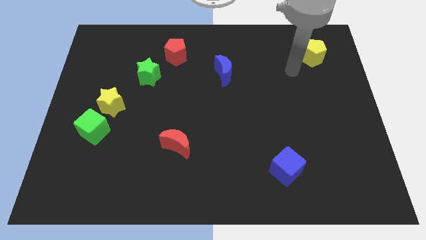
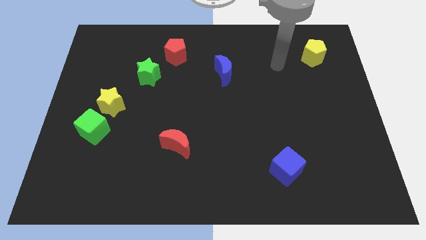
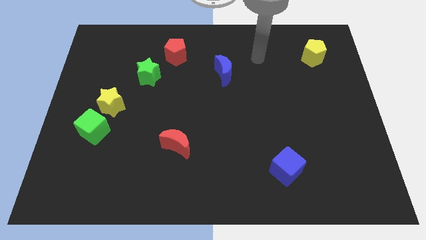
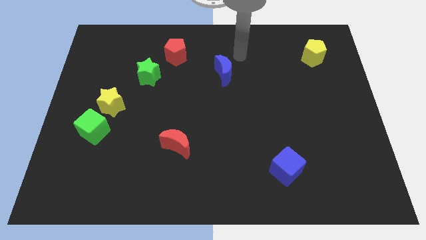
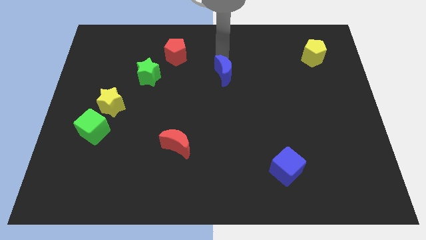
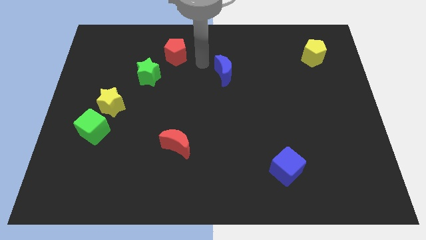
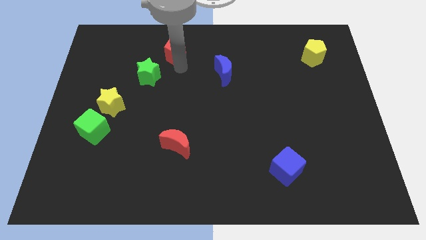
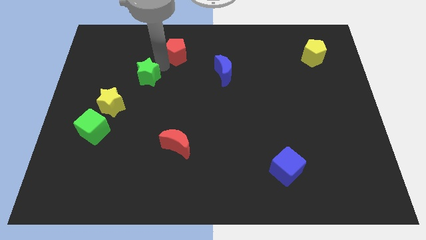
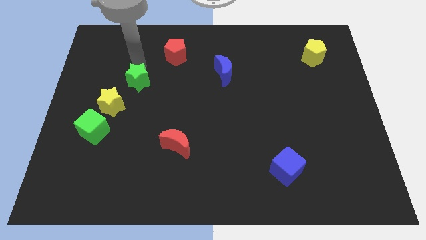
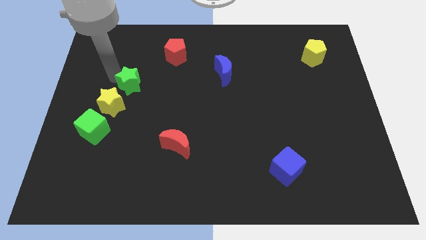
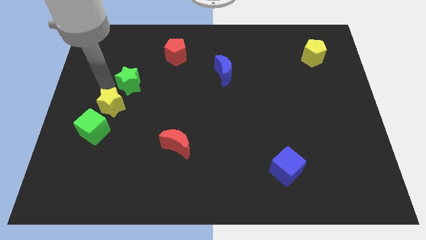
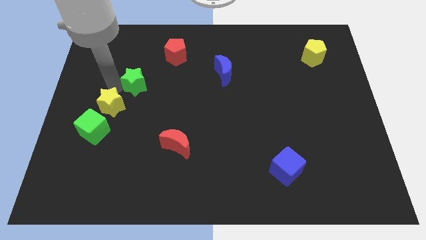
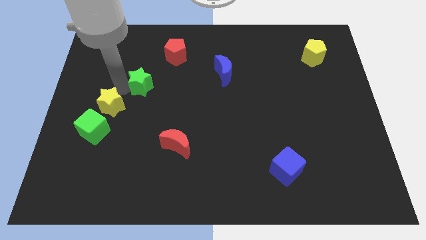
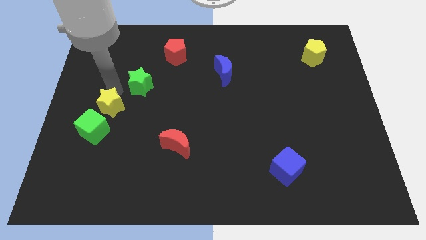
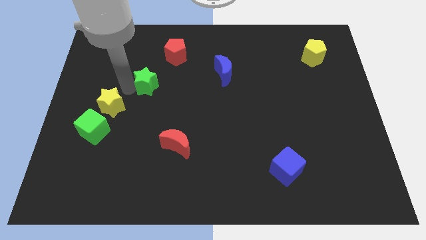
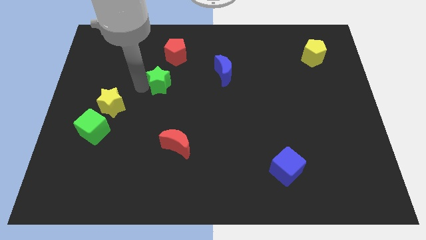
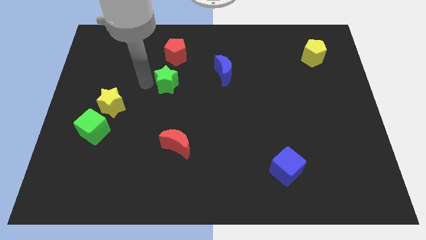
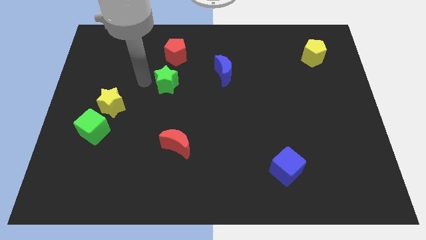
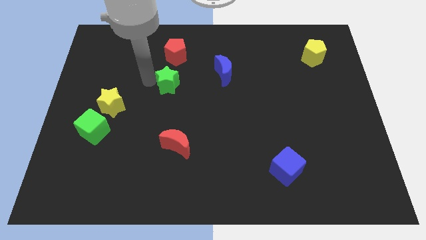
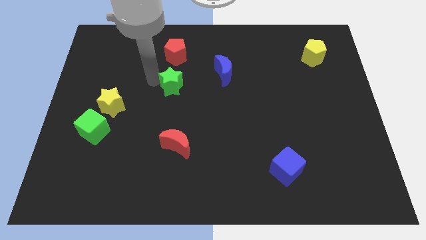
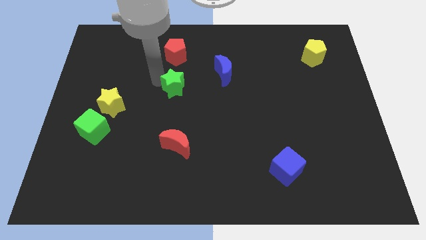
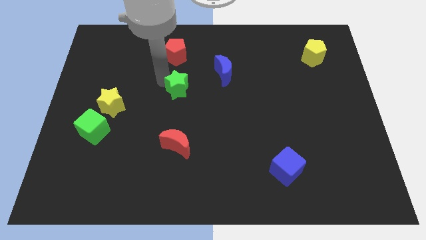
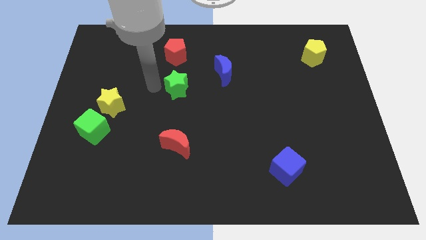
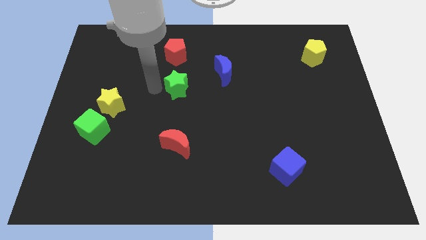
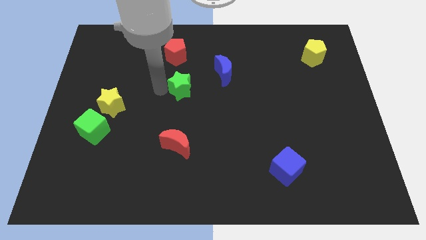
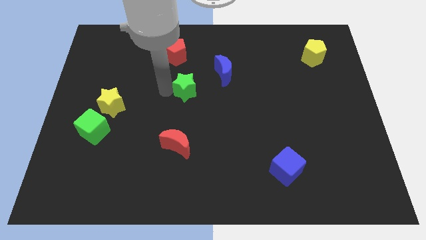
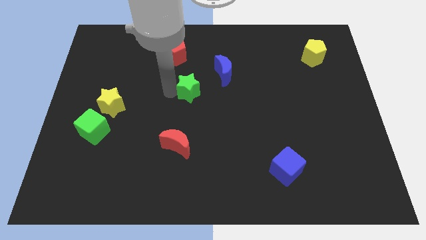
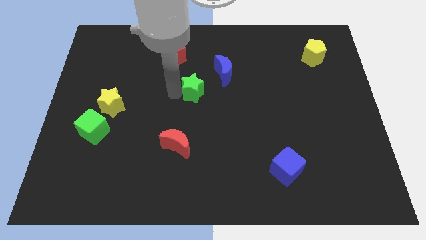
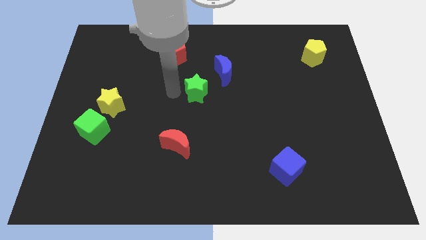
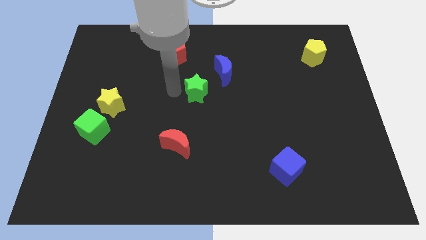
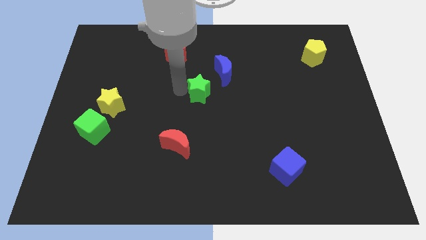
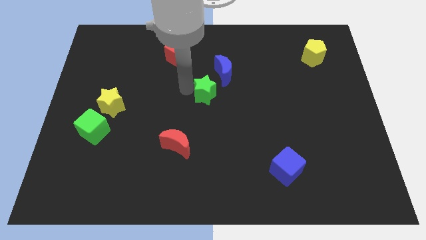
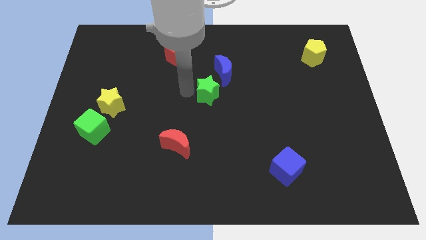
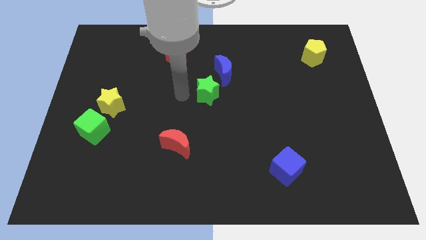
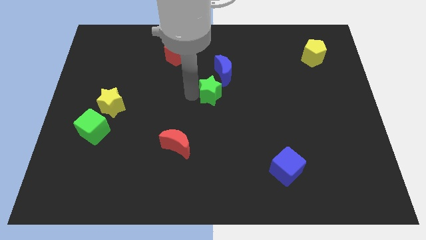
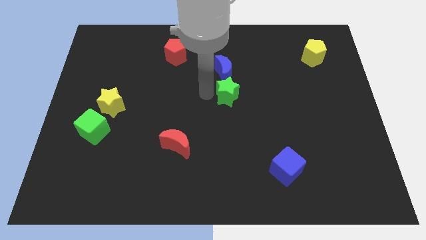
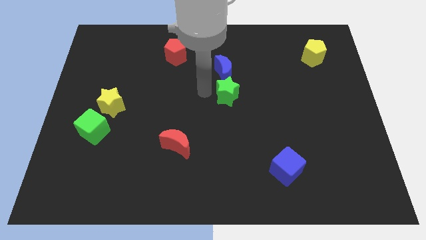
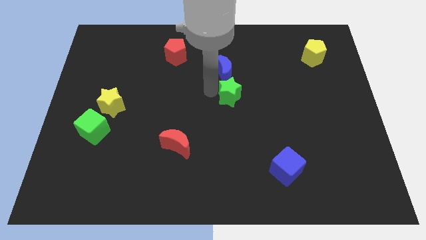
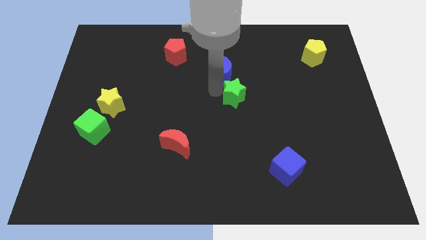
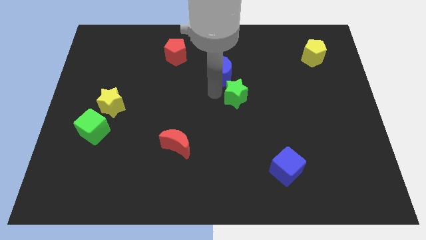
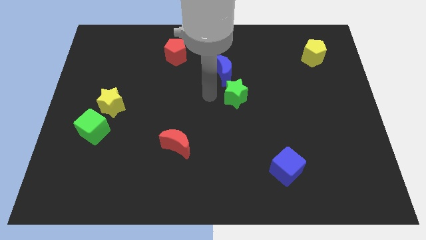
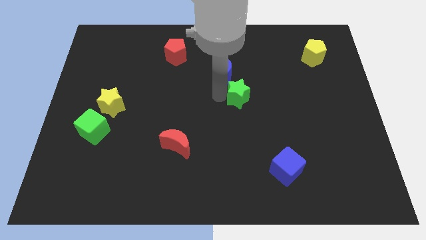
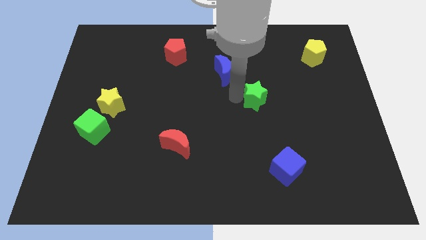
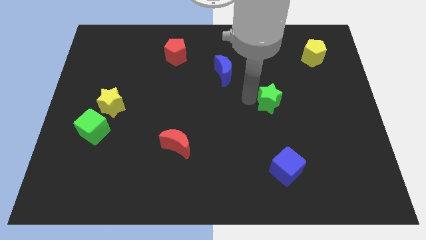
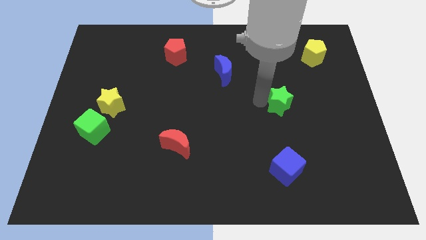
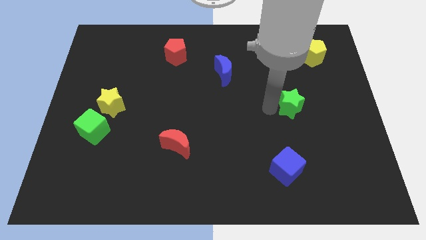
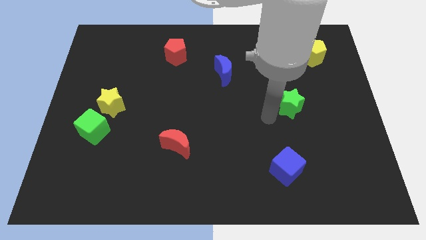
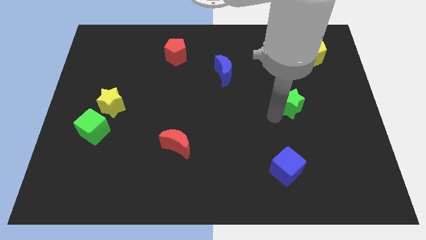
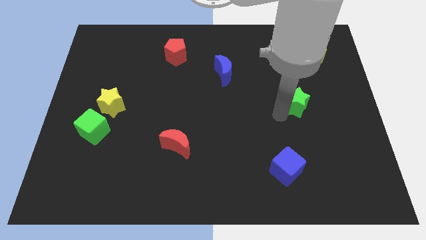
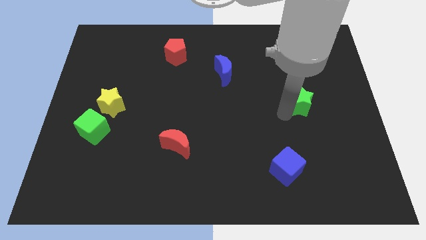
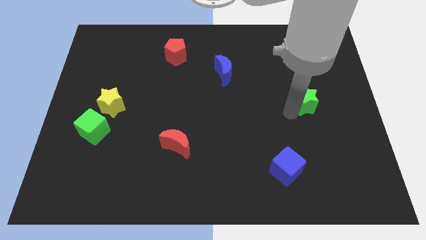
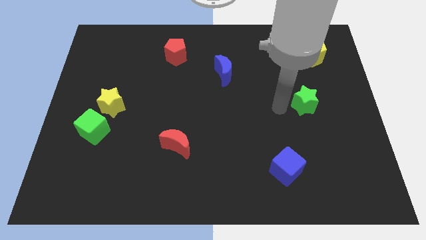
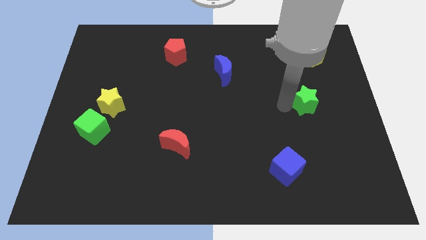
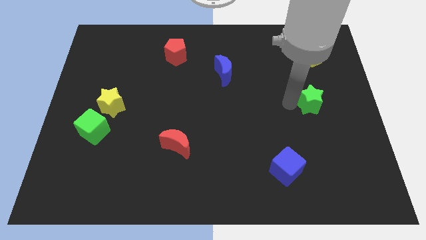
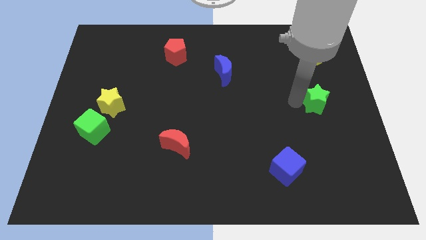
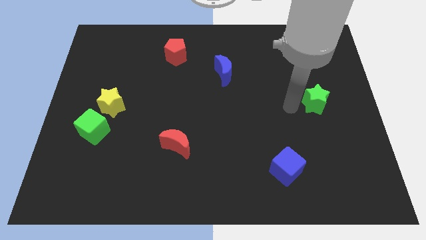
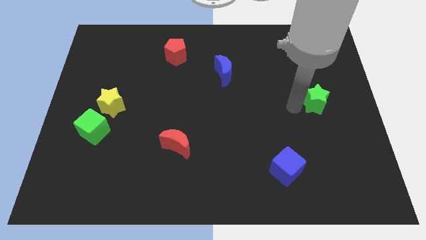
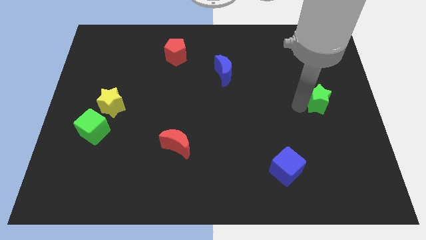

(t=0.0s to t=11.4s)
slide the green star to the right side of the board

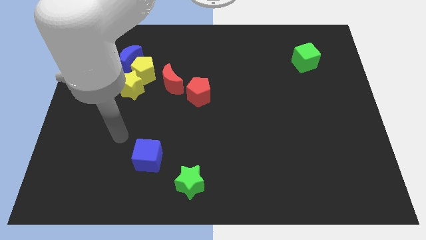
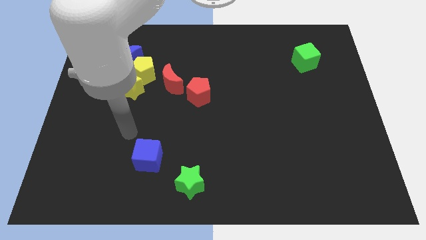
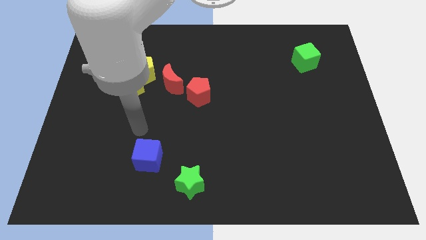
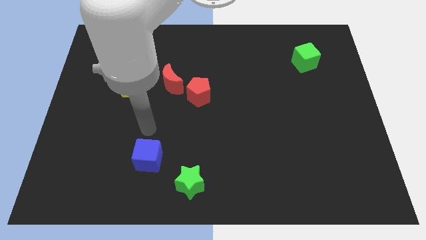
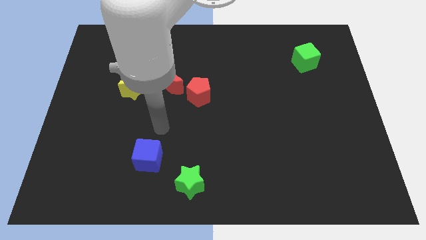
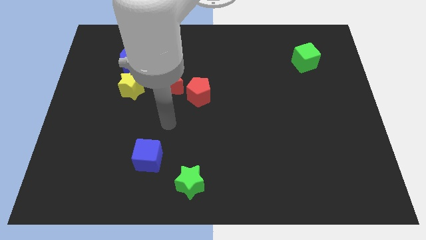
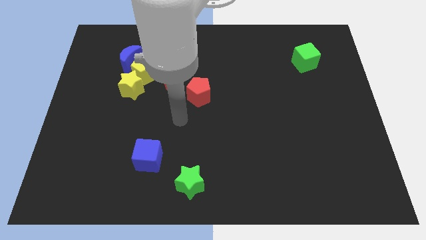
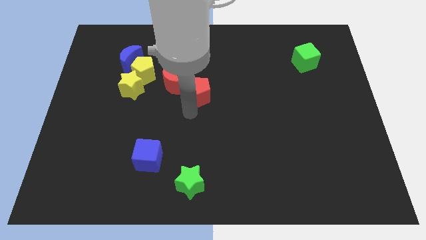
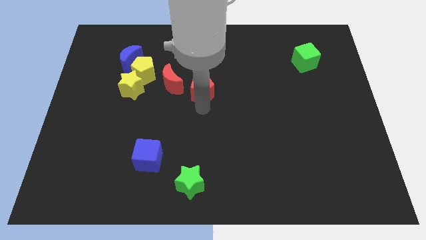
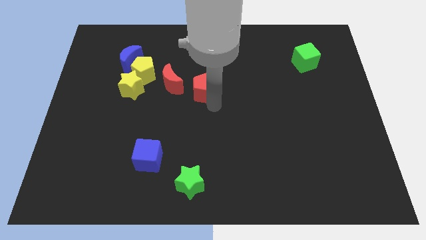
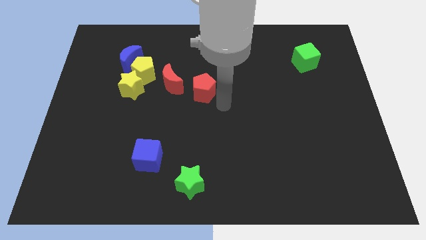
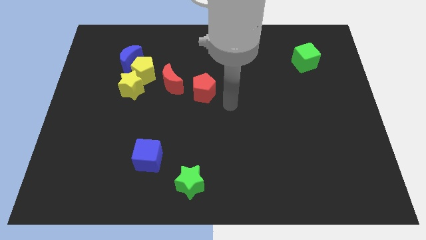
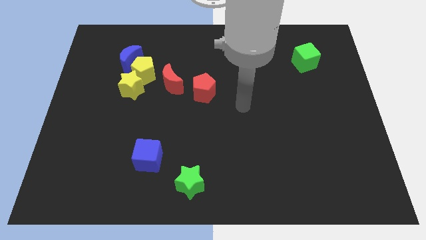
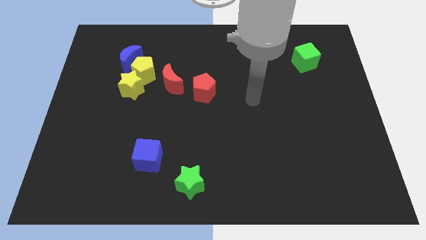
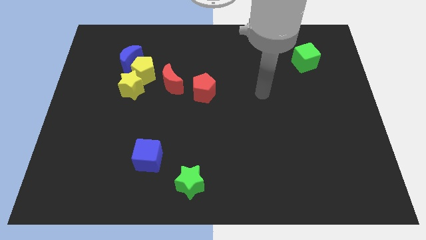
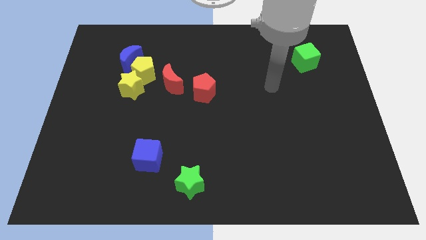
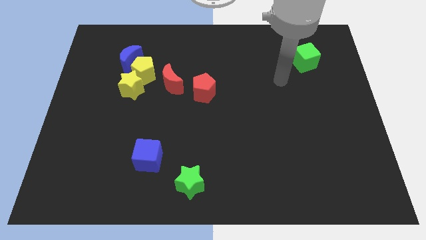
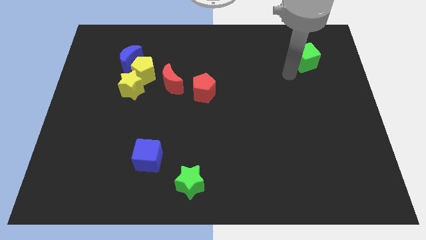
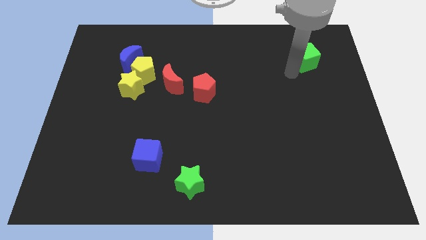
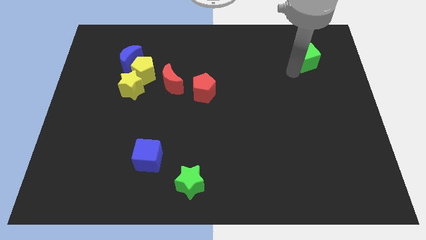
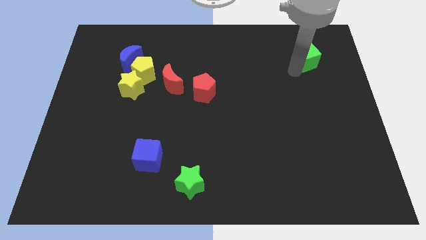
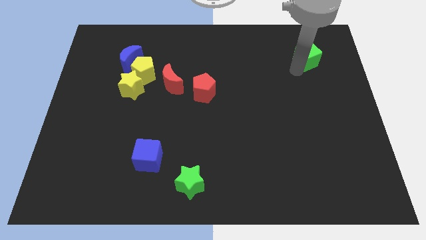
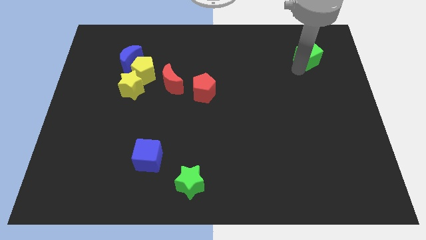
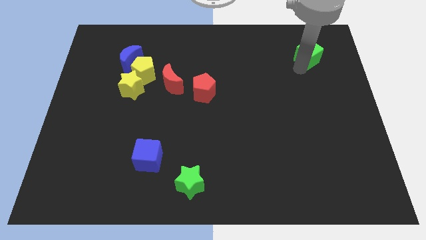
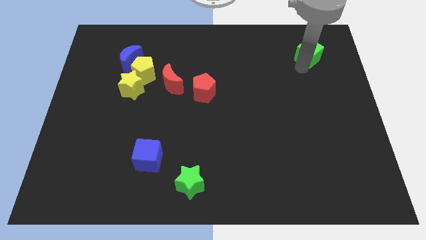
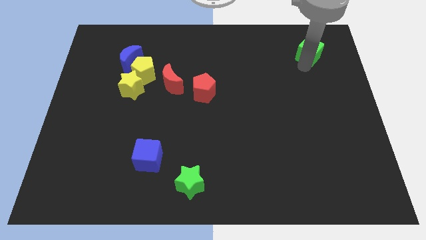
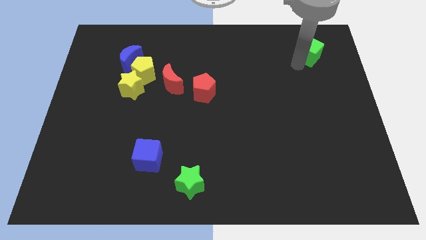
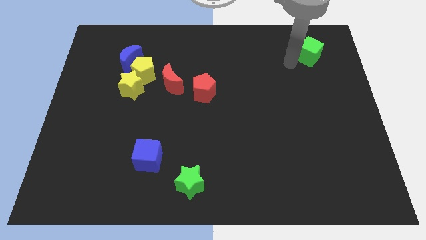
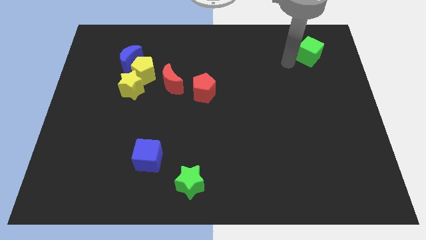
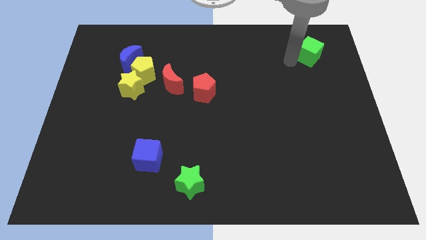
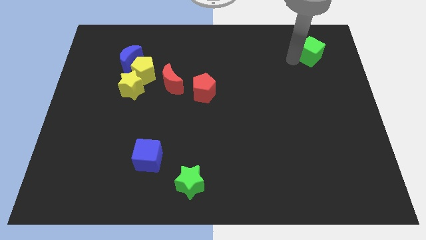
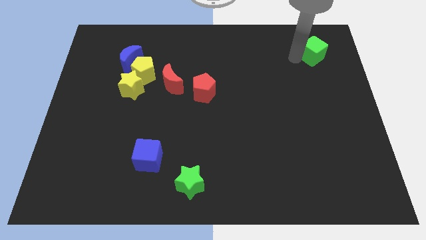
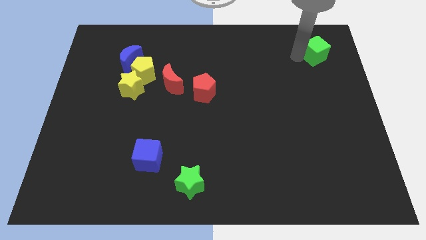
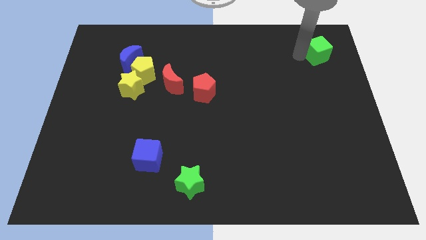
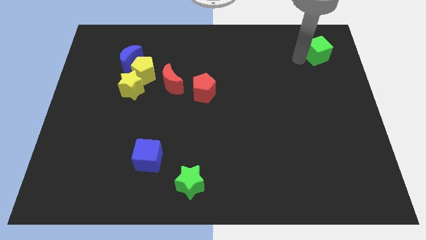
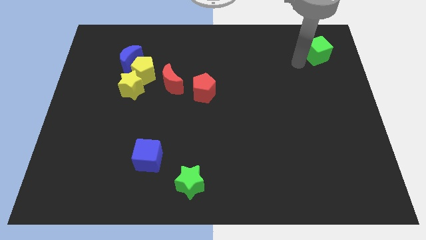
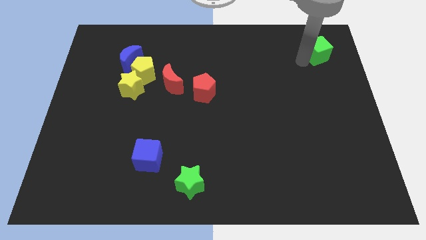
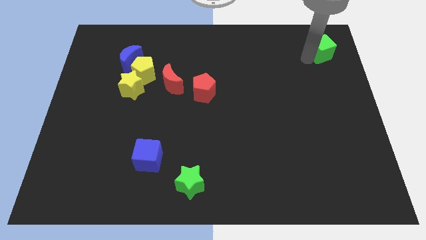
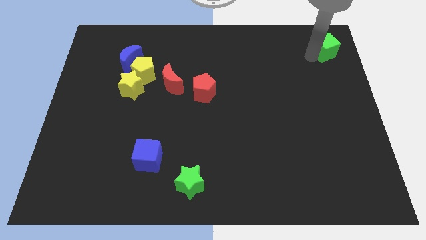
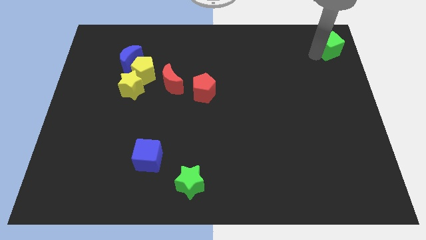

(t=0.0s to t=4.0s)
move the green cube to the top right of the board
